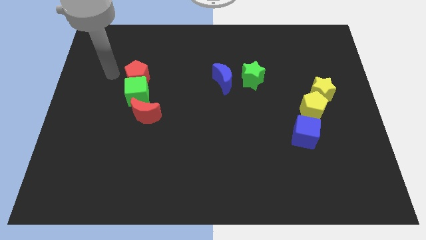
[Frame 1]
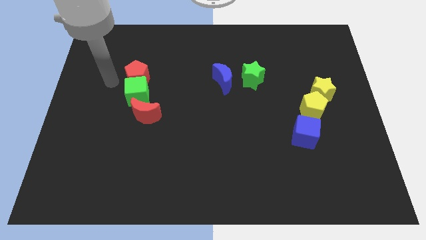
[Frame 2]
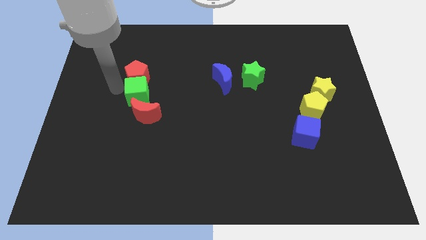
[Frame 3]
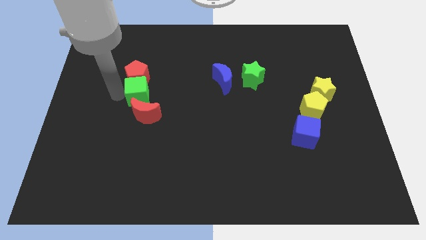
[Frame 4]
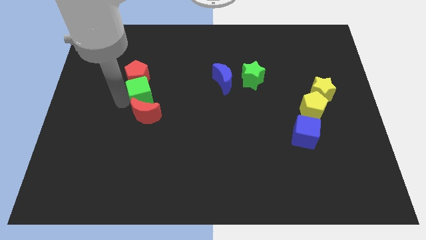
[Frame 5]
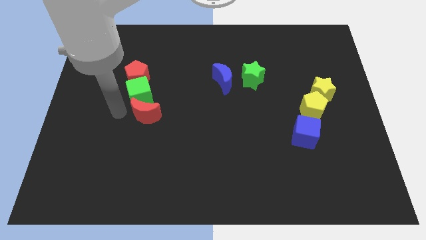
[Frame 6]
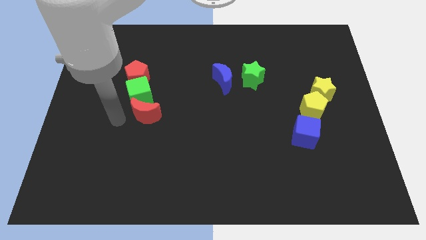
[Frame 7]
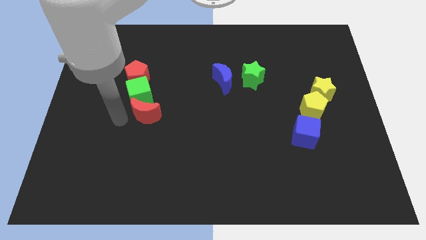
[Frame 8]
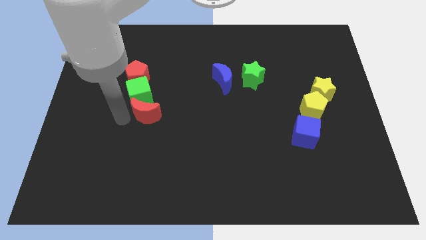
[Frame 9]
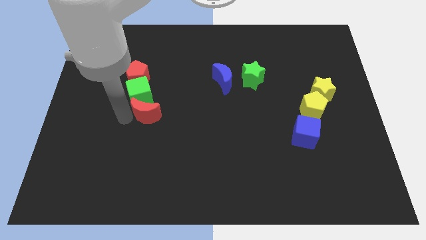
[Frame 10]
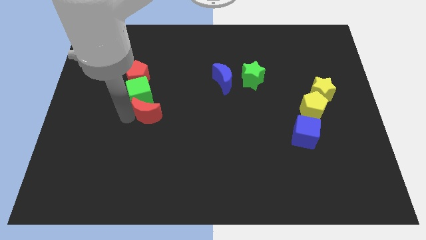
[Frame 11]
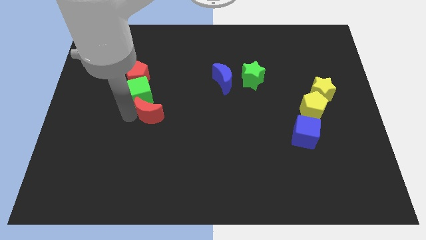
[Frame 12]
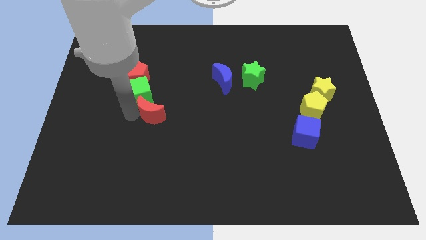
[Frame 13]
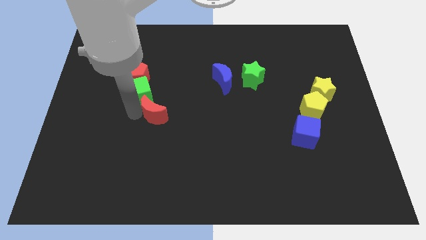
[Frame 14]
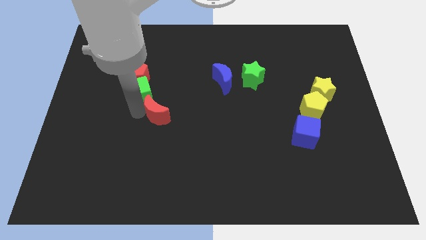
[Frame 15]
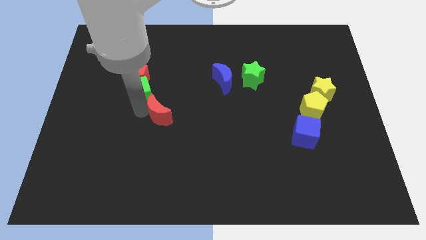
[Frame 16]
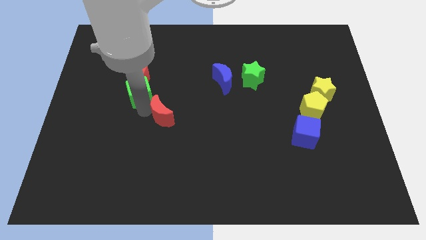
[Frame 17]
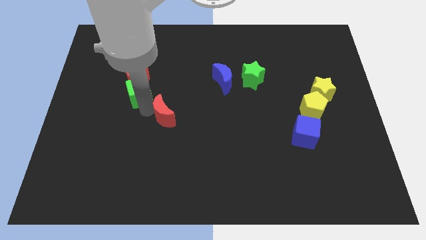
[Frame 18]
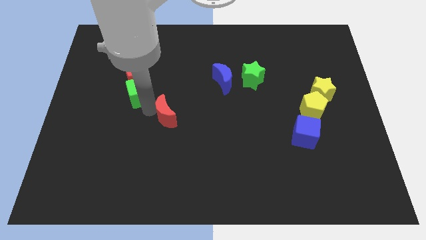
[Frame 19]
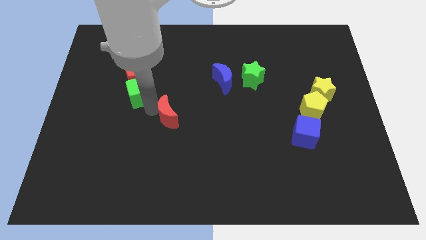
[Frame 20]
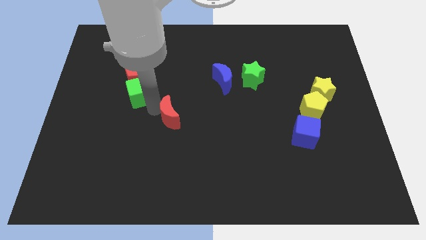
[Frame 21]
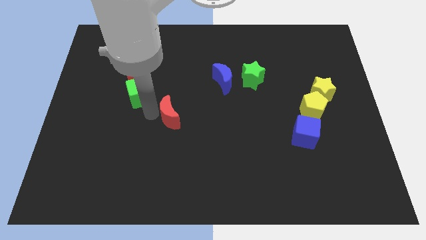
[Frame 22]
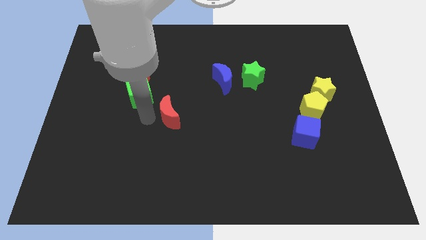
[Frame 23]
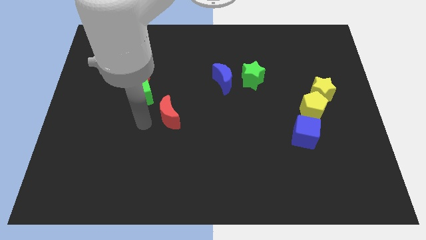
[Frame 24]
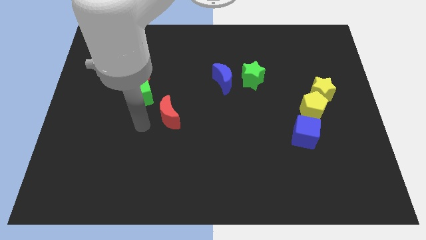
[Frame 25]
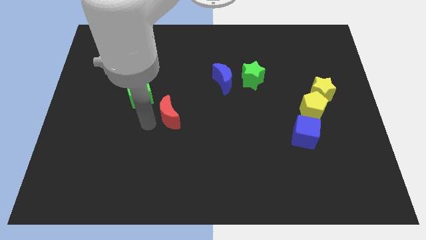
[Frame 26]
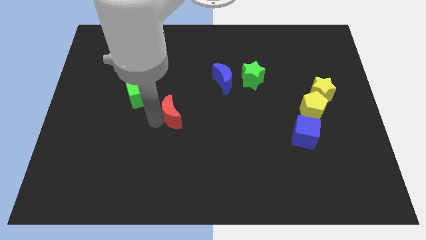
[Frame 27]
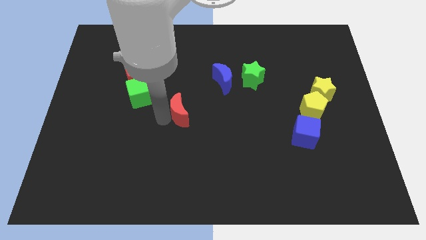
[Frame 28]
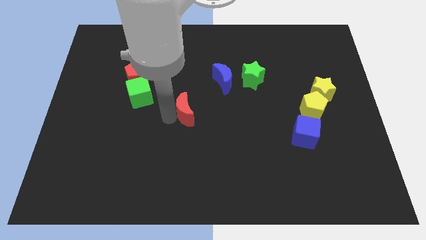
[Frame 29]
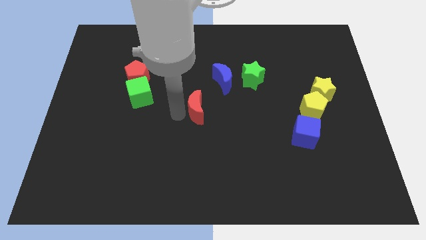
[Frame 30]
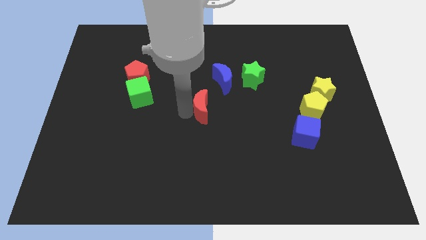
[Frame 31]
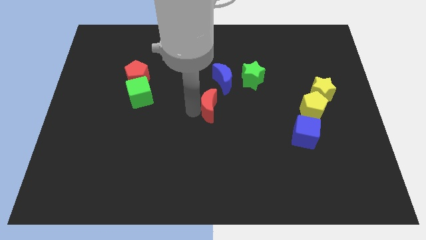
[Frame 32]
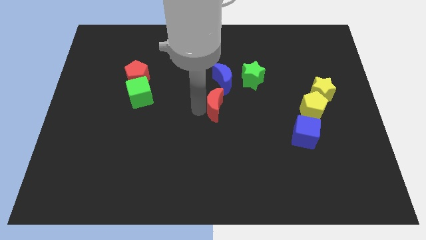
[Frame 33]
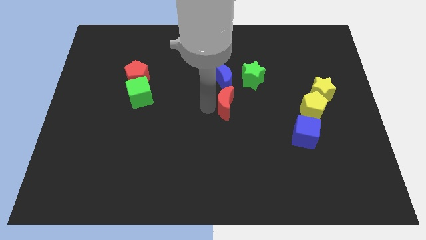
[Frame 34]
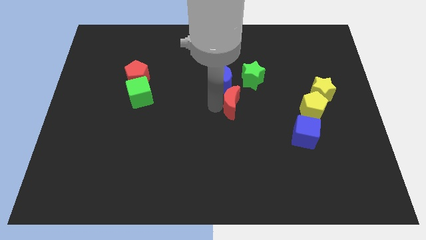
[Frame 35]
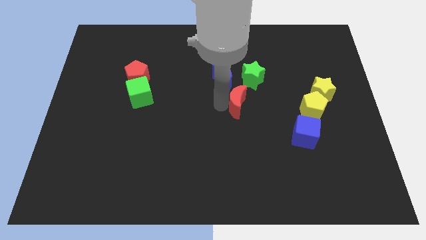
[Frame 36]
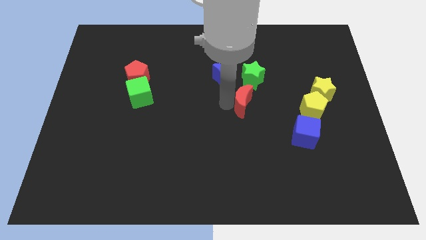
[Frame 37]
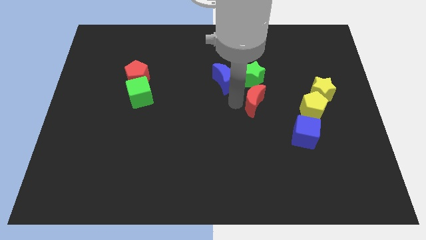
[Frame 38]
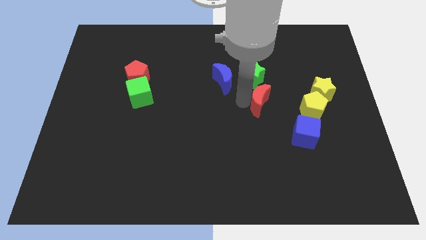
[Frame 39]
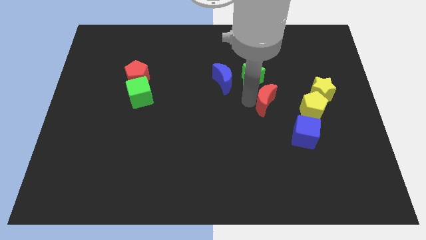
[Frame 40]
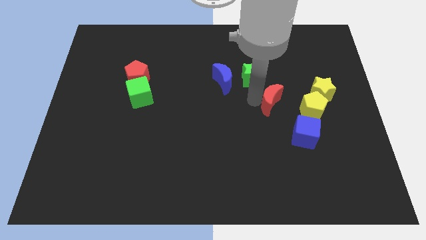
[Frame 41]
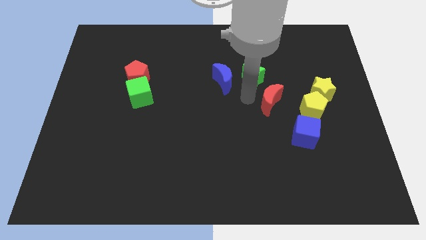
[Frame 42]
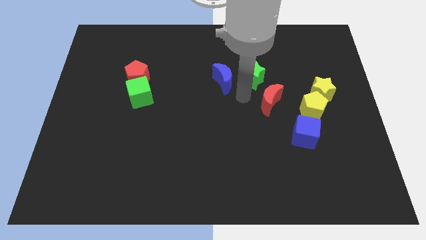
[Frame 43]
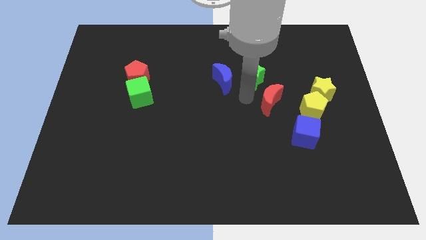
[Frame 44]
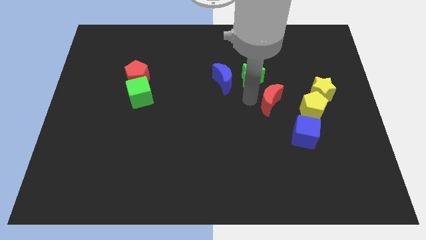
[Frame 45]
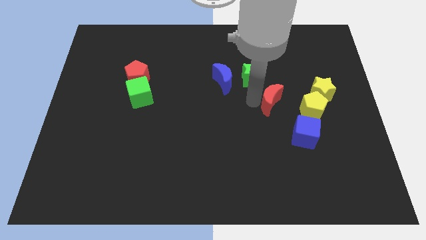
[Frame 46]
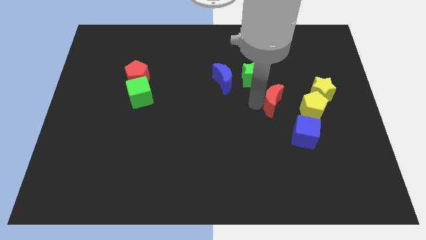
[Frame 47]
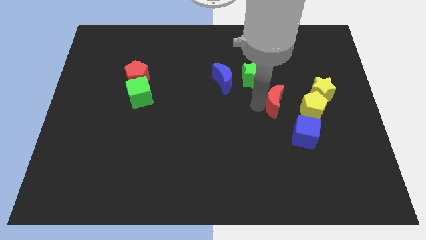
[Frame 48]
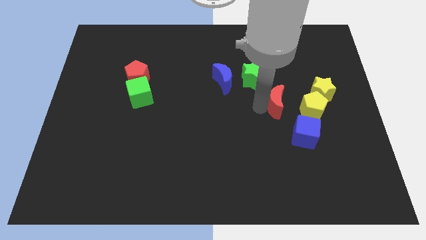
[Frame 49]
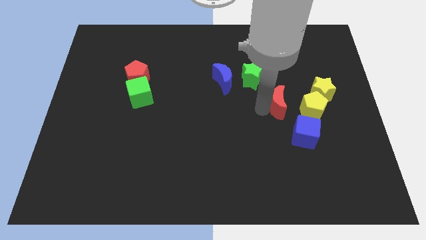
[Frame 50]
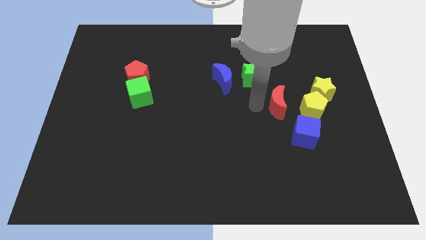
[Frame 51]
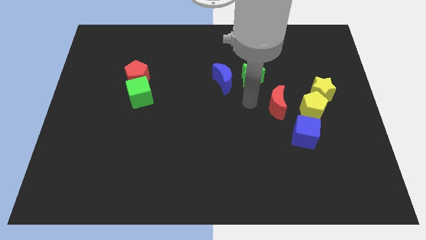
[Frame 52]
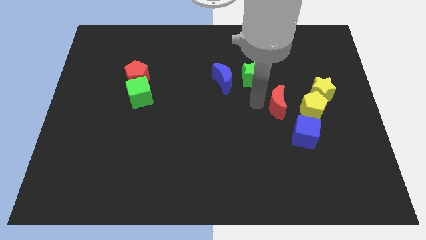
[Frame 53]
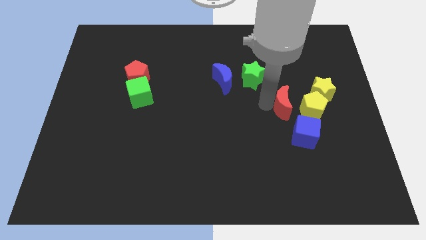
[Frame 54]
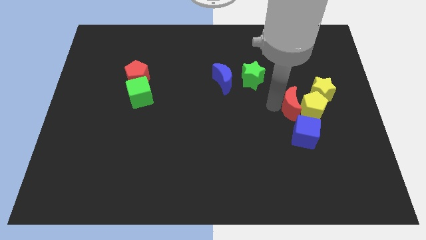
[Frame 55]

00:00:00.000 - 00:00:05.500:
slide the red moon to the yellow pentagon

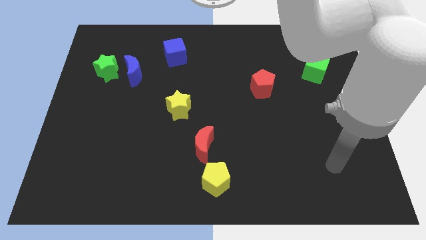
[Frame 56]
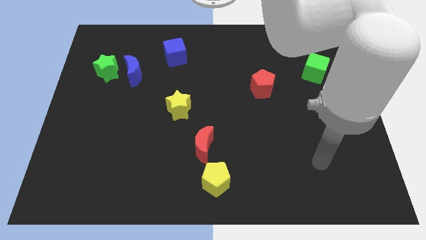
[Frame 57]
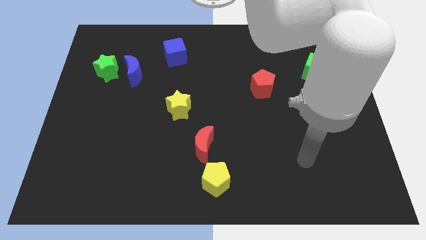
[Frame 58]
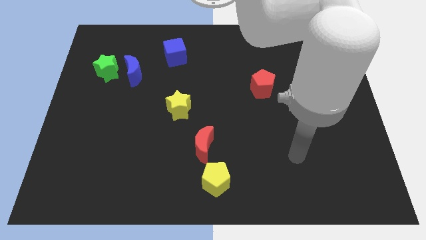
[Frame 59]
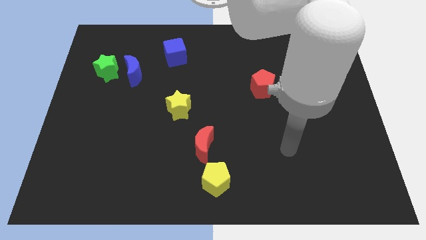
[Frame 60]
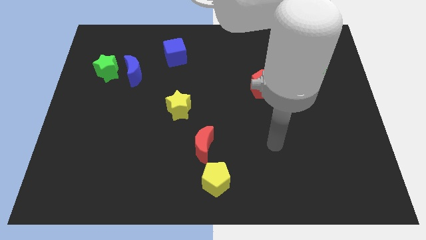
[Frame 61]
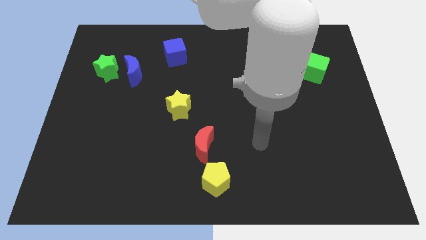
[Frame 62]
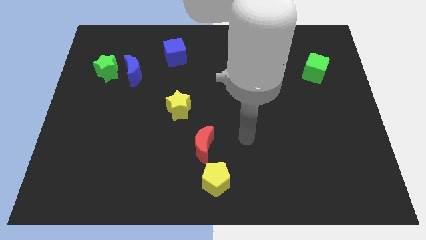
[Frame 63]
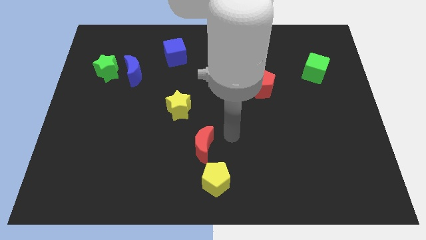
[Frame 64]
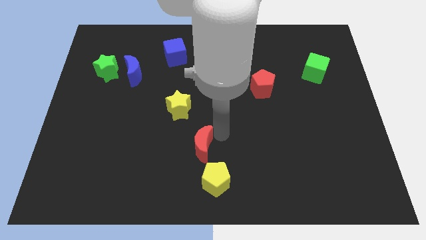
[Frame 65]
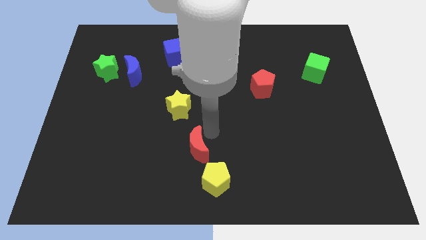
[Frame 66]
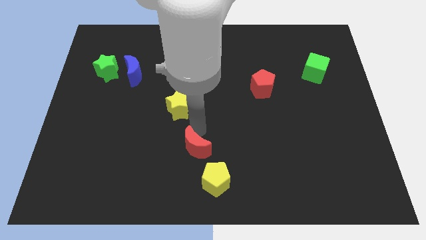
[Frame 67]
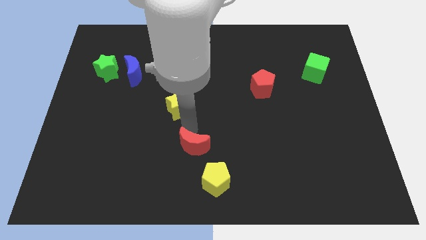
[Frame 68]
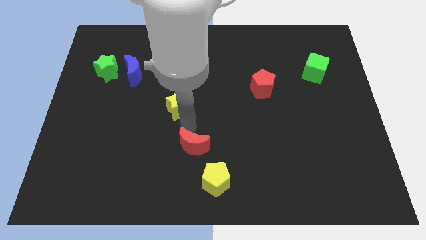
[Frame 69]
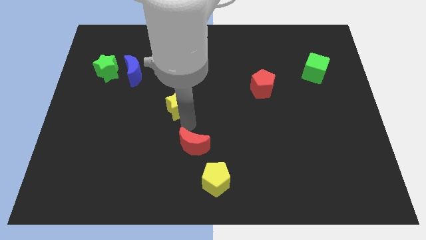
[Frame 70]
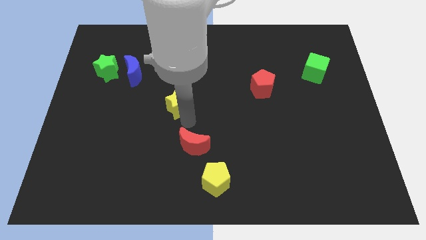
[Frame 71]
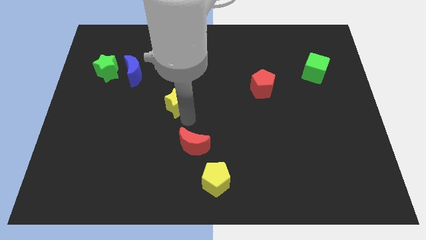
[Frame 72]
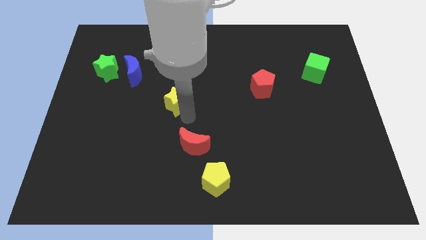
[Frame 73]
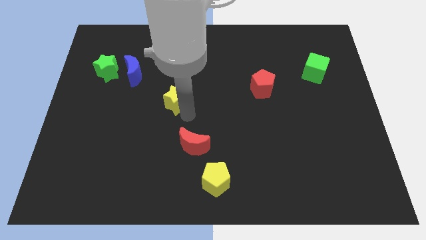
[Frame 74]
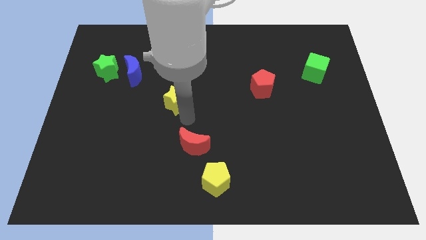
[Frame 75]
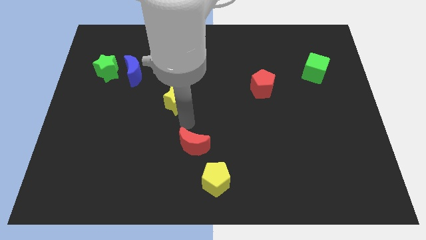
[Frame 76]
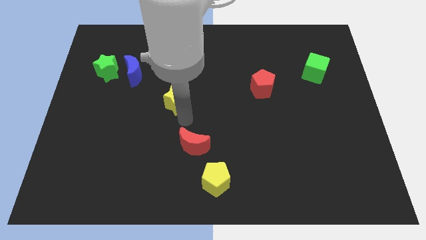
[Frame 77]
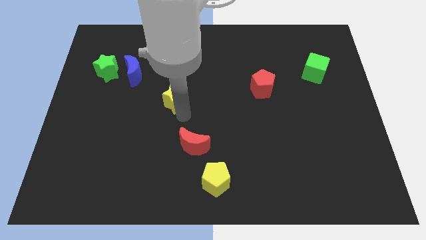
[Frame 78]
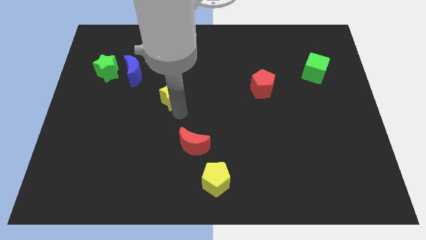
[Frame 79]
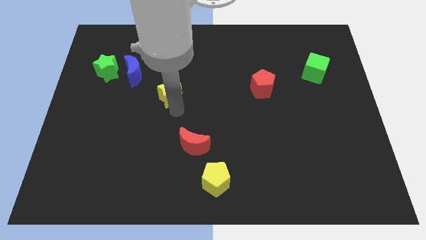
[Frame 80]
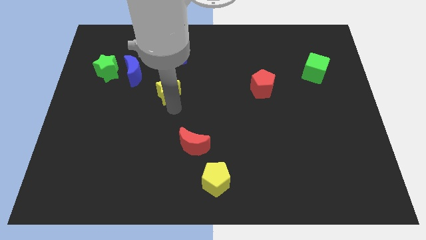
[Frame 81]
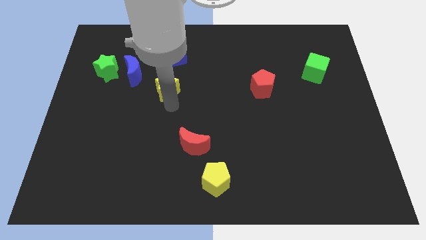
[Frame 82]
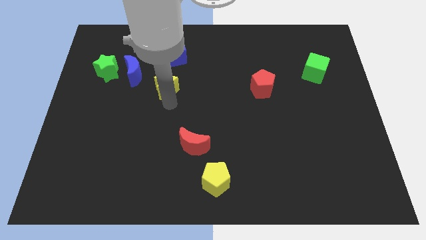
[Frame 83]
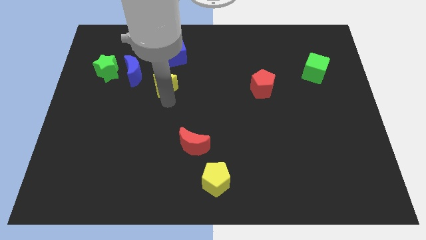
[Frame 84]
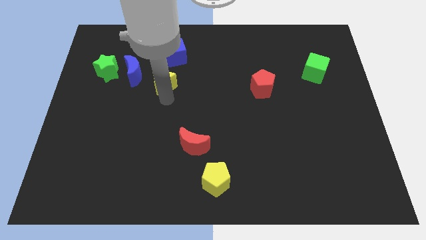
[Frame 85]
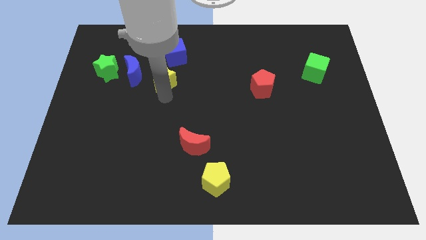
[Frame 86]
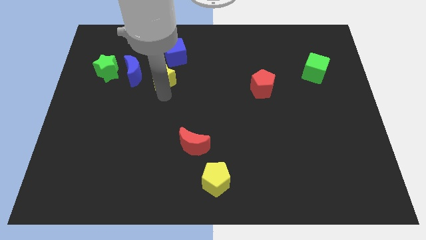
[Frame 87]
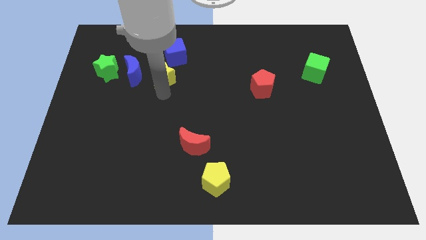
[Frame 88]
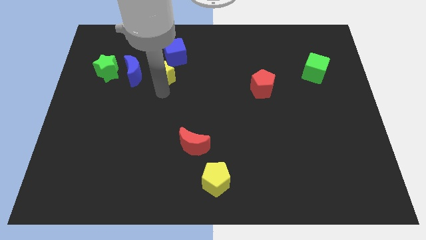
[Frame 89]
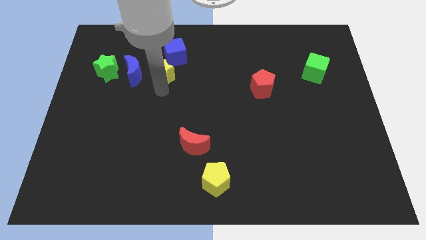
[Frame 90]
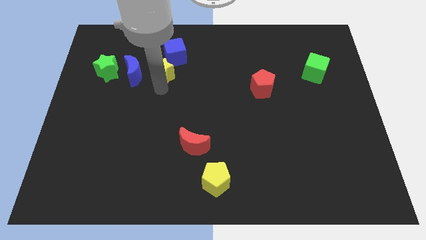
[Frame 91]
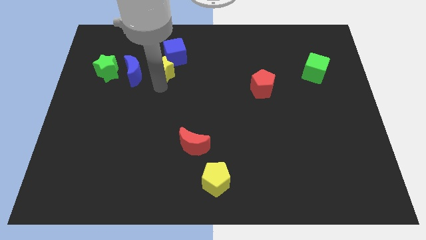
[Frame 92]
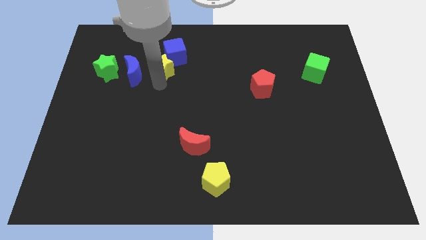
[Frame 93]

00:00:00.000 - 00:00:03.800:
push the yellow star close to the blue cube
